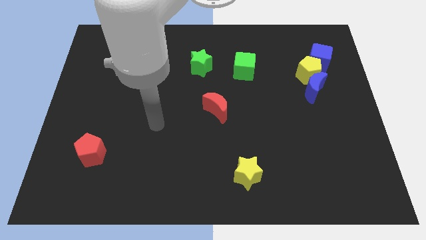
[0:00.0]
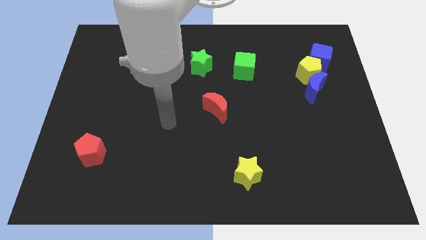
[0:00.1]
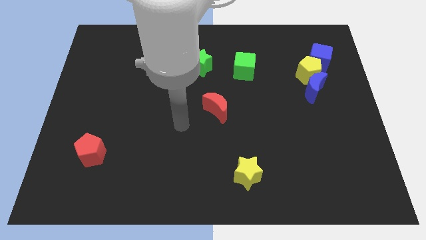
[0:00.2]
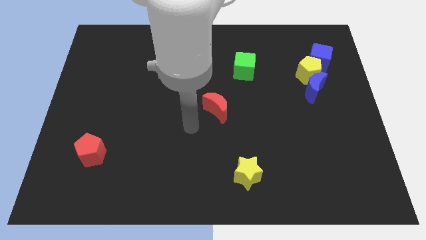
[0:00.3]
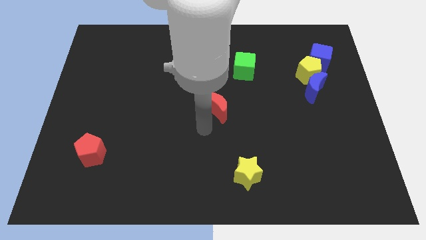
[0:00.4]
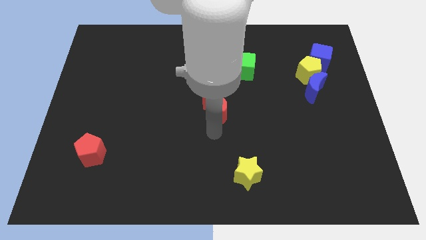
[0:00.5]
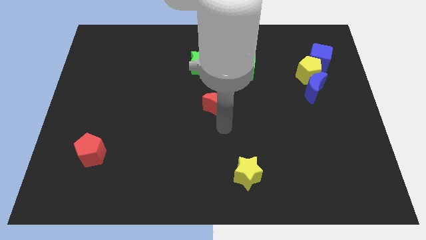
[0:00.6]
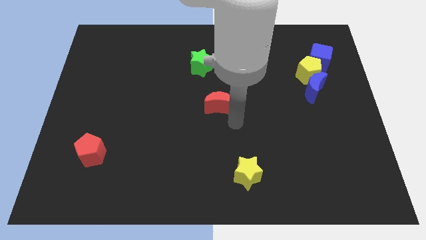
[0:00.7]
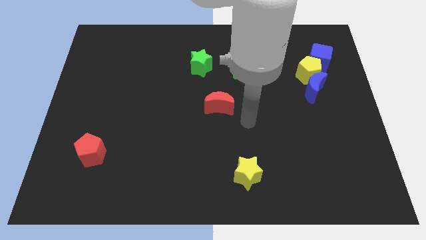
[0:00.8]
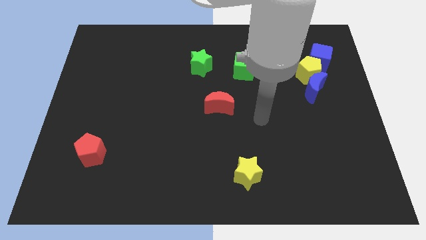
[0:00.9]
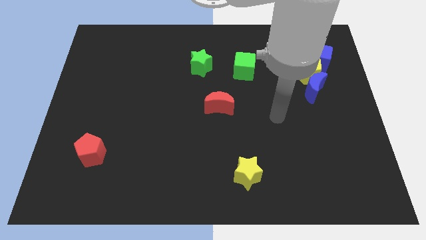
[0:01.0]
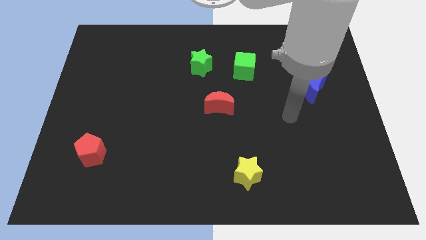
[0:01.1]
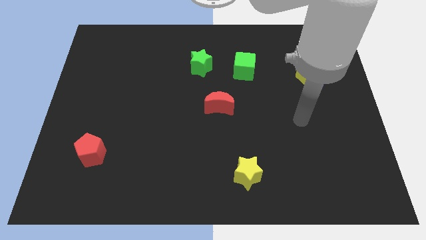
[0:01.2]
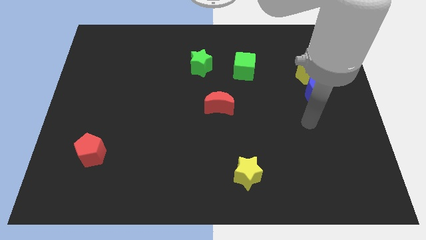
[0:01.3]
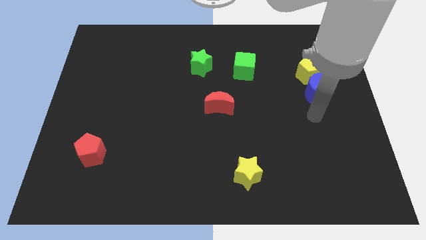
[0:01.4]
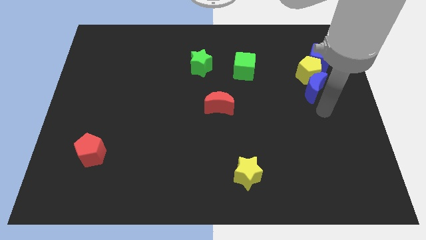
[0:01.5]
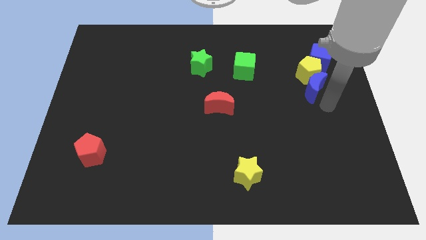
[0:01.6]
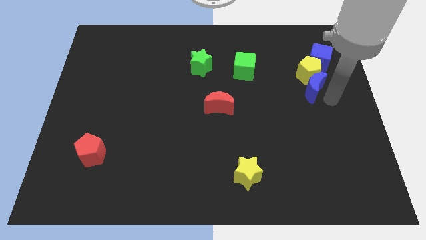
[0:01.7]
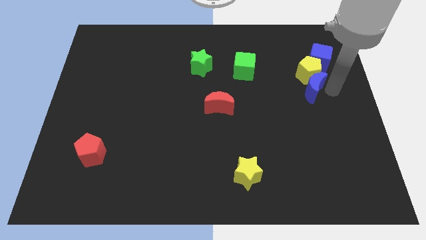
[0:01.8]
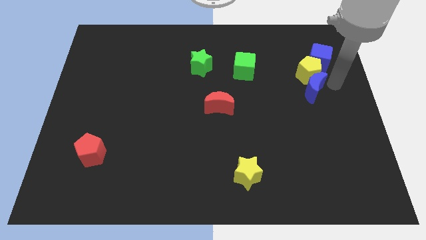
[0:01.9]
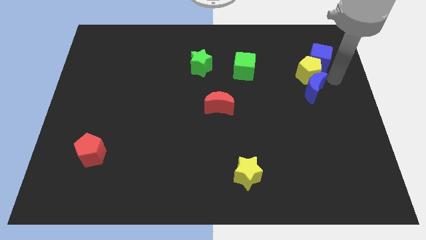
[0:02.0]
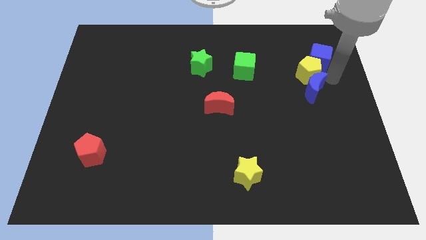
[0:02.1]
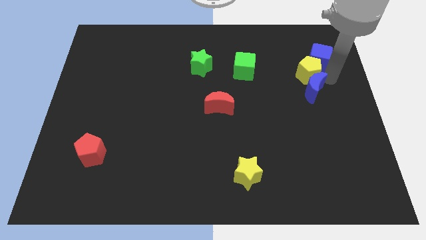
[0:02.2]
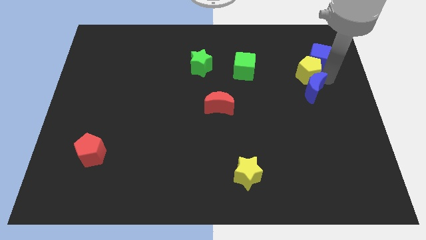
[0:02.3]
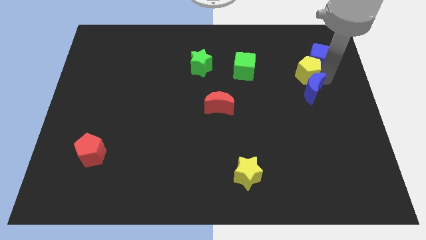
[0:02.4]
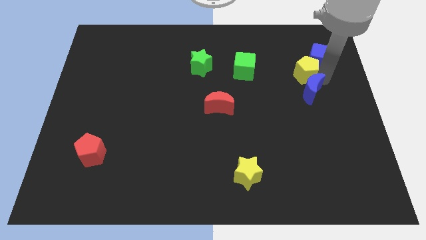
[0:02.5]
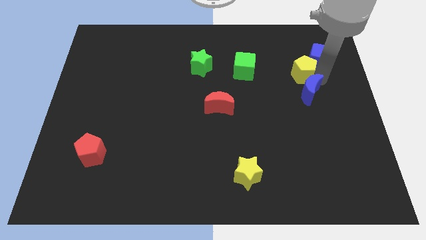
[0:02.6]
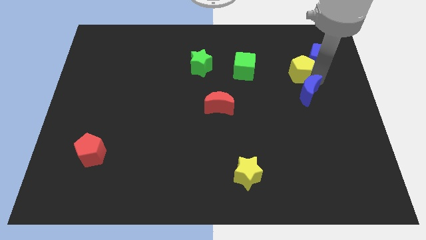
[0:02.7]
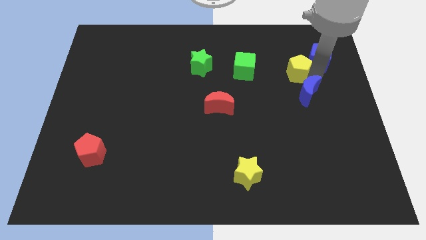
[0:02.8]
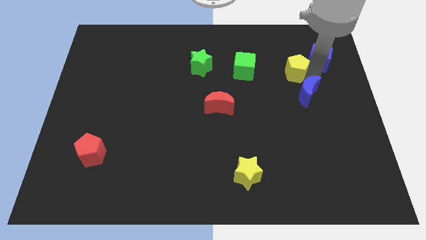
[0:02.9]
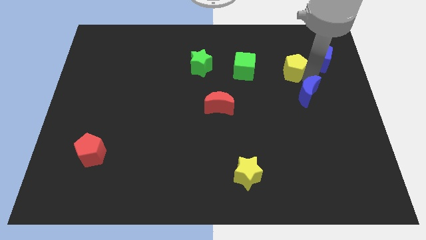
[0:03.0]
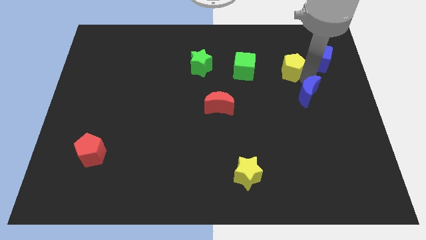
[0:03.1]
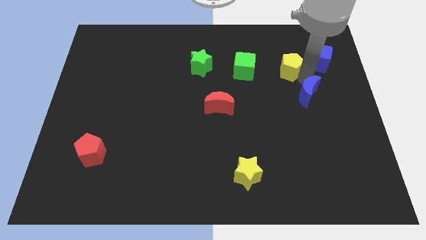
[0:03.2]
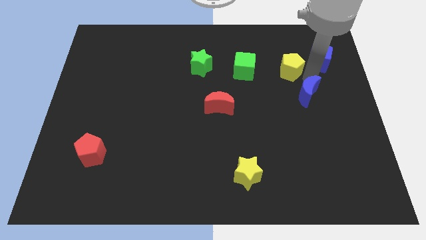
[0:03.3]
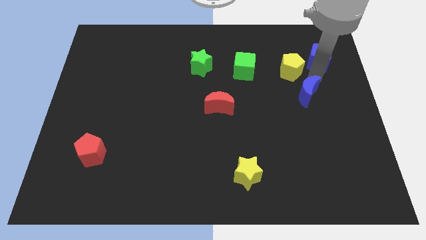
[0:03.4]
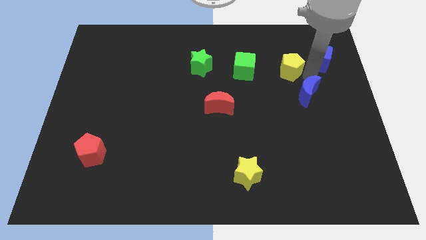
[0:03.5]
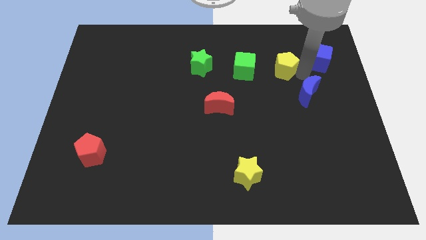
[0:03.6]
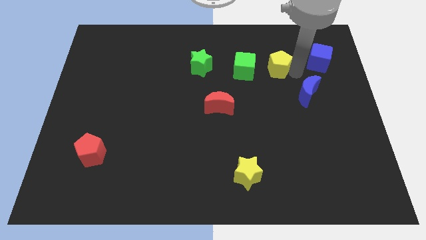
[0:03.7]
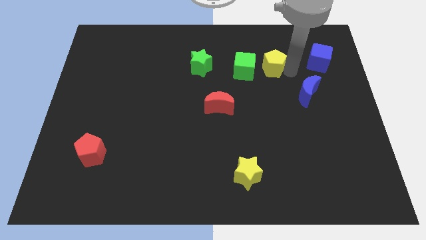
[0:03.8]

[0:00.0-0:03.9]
move the yellow pentagon away from the blue moon and blue cube

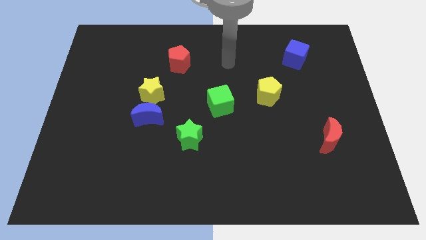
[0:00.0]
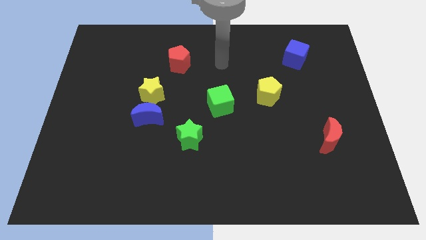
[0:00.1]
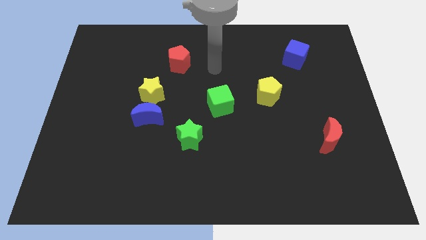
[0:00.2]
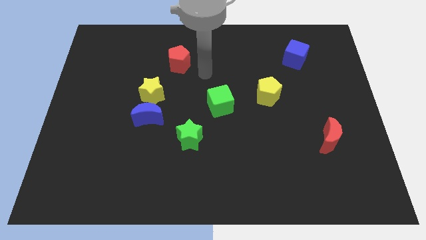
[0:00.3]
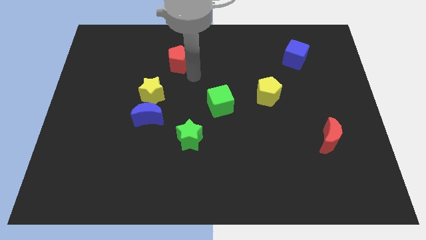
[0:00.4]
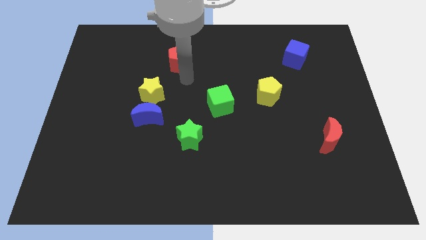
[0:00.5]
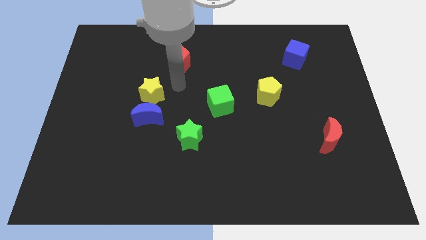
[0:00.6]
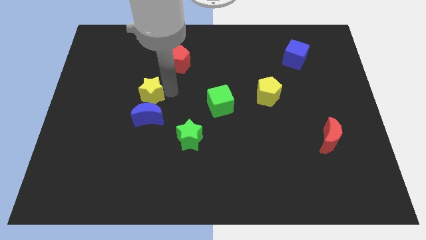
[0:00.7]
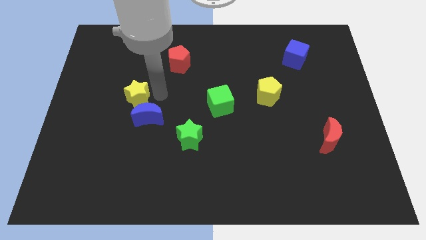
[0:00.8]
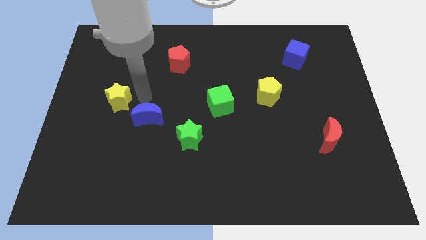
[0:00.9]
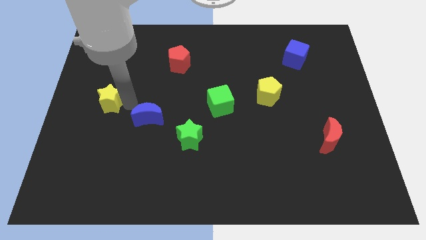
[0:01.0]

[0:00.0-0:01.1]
pull the blue moon apart from the yellow star

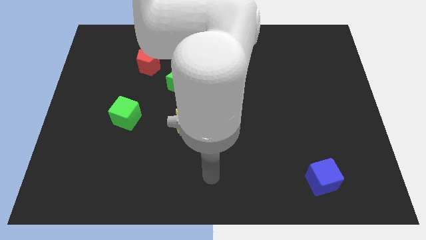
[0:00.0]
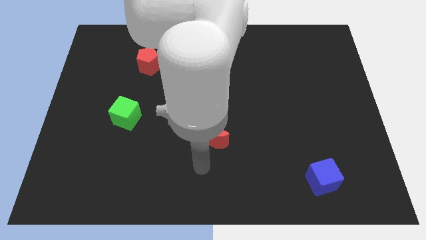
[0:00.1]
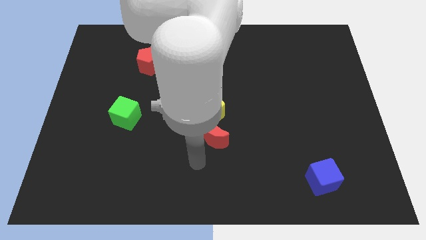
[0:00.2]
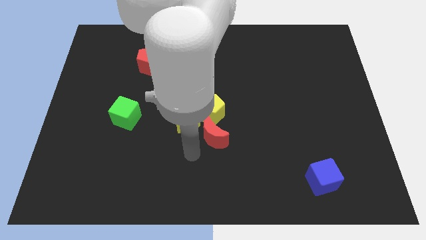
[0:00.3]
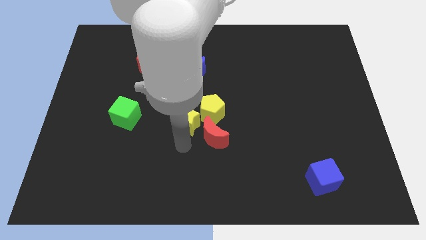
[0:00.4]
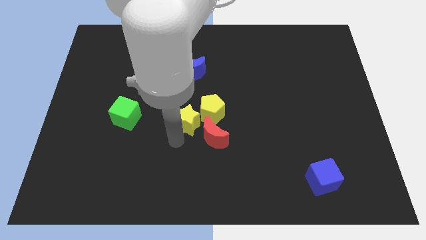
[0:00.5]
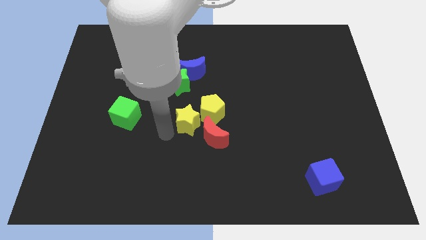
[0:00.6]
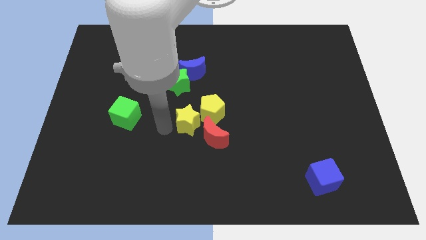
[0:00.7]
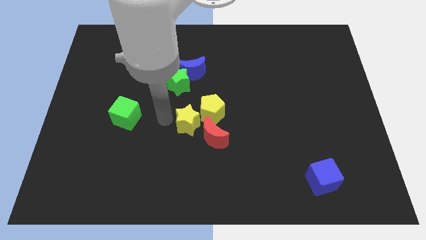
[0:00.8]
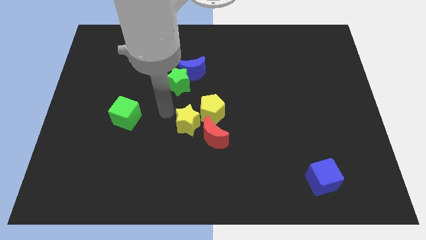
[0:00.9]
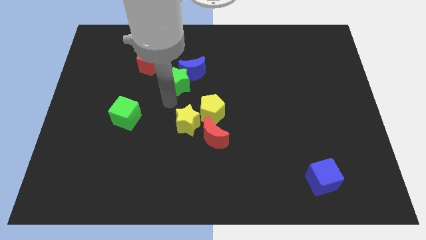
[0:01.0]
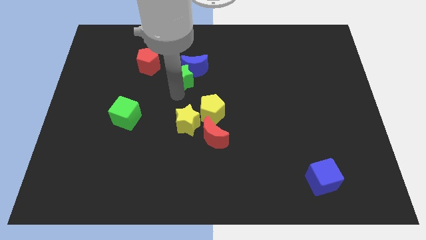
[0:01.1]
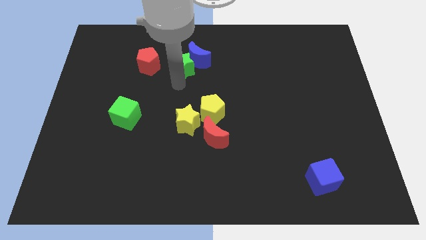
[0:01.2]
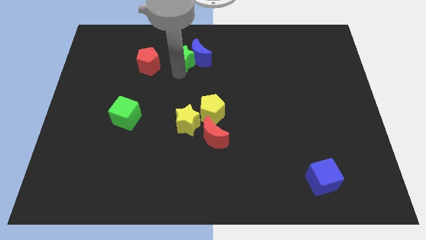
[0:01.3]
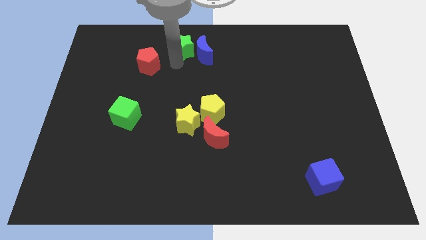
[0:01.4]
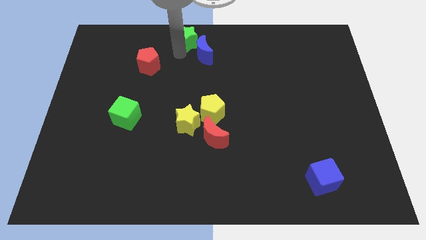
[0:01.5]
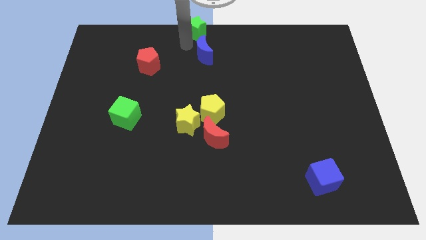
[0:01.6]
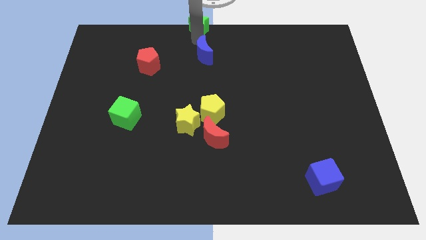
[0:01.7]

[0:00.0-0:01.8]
pull the blue moon apart from the green star

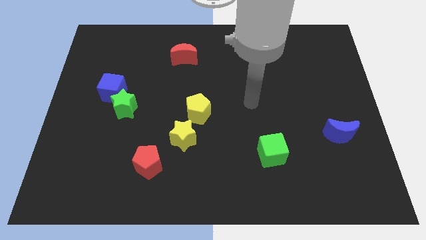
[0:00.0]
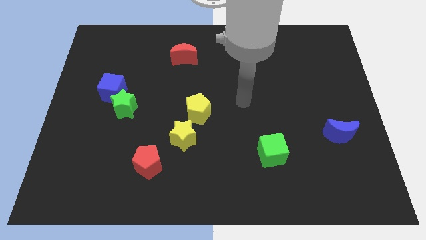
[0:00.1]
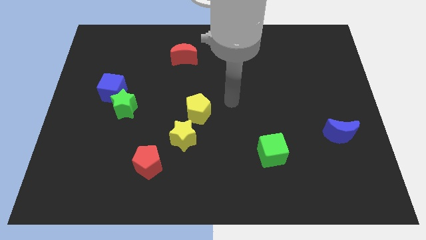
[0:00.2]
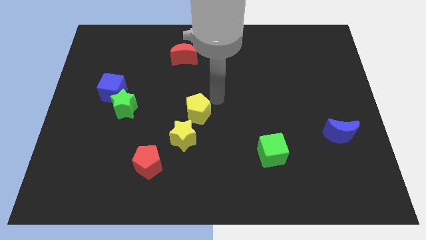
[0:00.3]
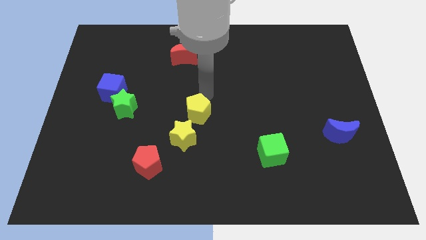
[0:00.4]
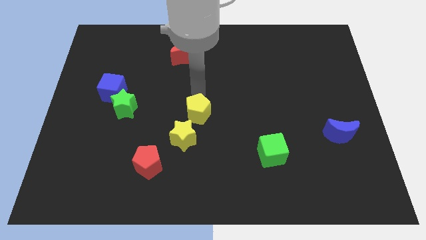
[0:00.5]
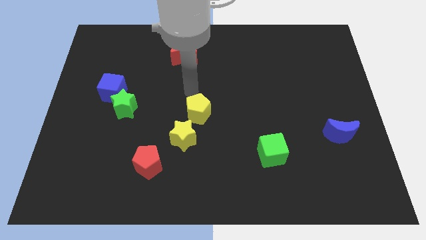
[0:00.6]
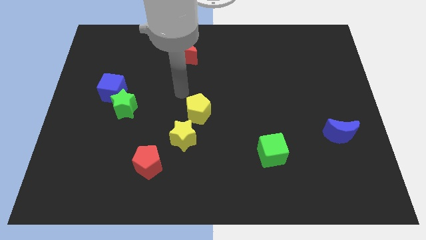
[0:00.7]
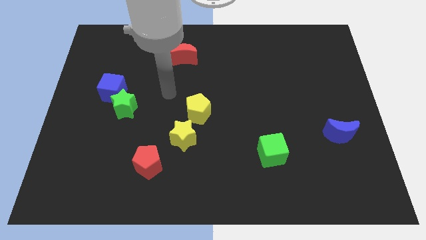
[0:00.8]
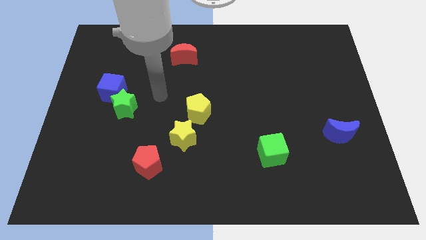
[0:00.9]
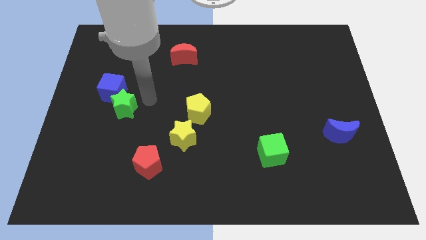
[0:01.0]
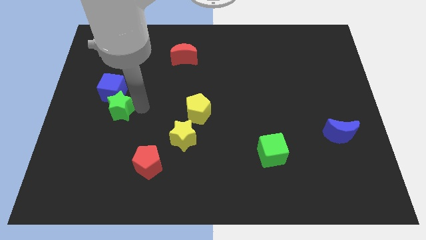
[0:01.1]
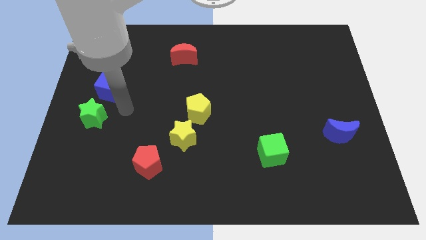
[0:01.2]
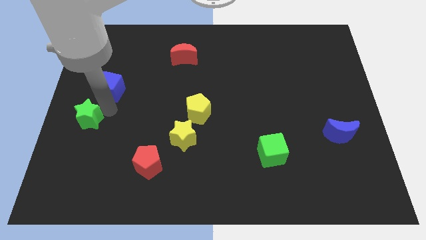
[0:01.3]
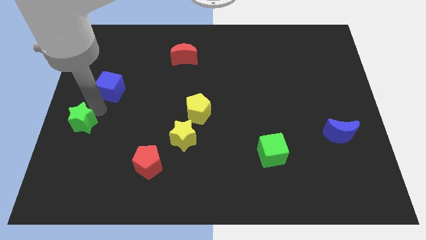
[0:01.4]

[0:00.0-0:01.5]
pull the blue cube apart from the green star

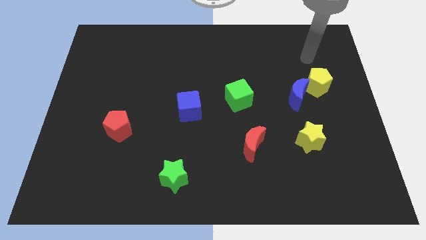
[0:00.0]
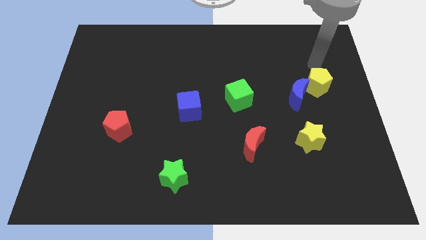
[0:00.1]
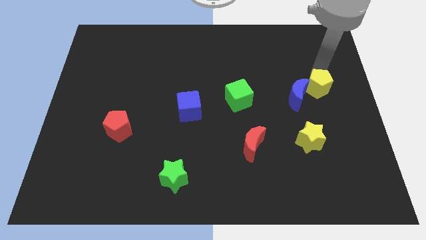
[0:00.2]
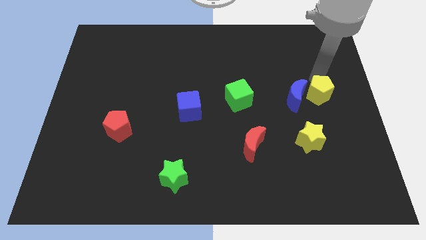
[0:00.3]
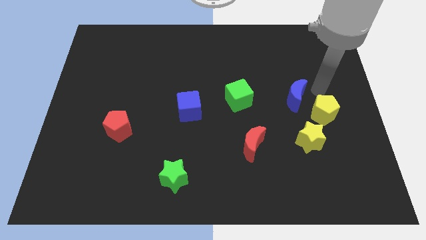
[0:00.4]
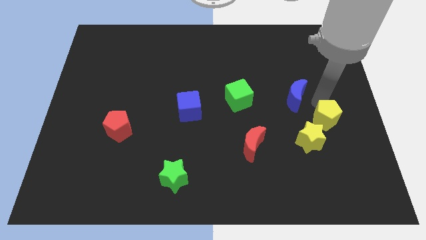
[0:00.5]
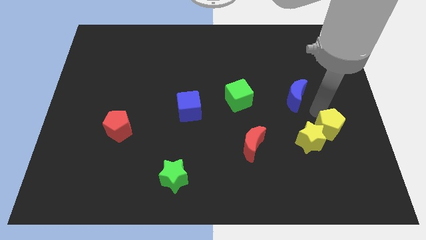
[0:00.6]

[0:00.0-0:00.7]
separate the blue moon from the yellow pentagon

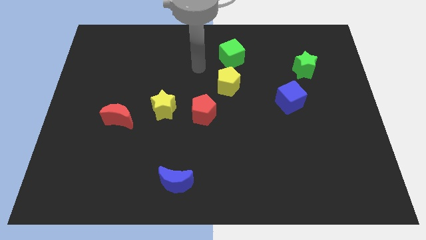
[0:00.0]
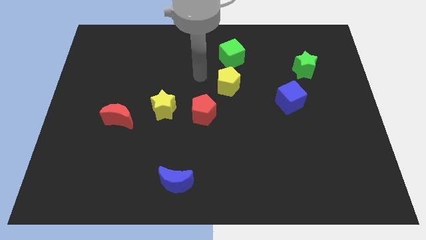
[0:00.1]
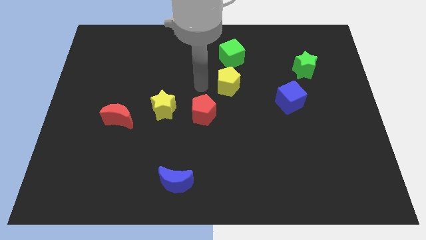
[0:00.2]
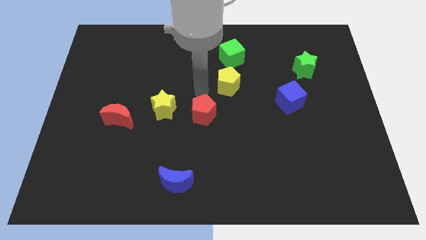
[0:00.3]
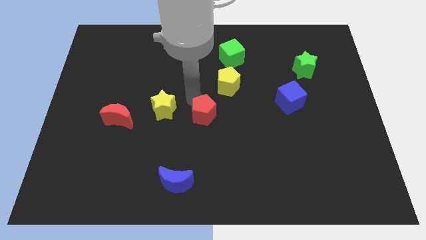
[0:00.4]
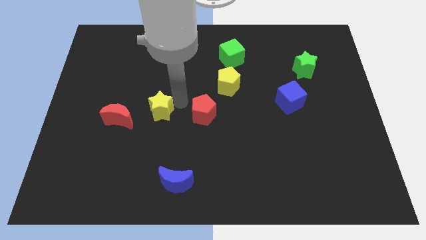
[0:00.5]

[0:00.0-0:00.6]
pull the red pentagon apart from the yellow star
